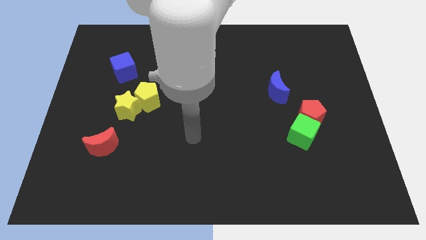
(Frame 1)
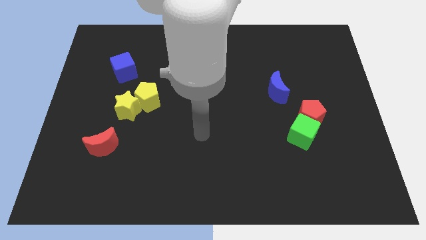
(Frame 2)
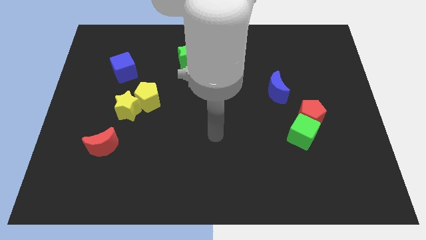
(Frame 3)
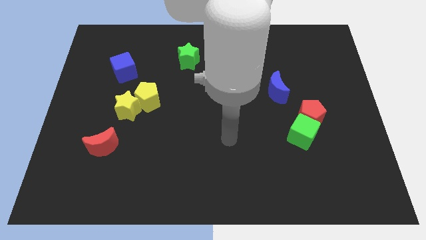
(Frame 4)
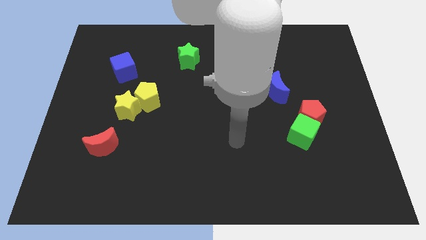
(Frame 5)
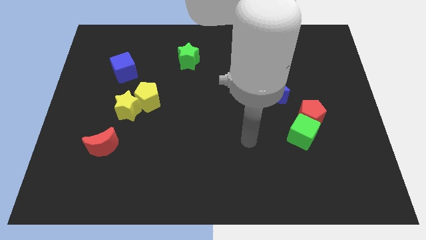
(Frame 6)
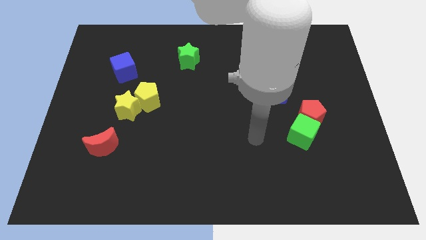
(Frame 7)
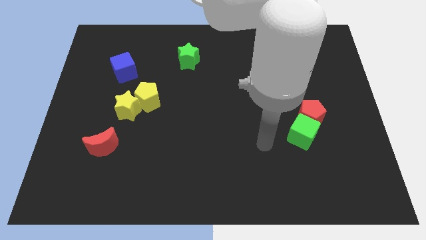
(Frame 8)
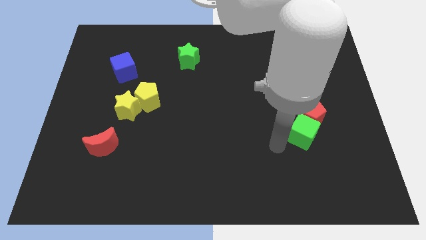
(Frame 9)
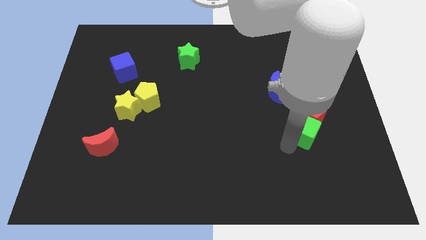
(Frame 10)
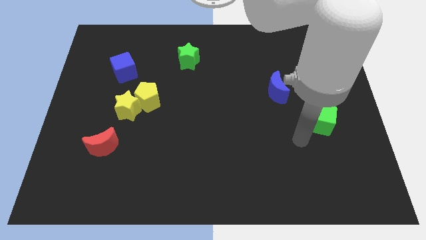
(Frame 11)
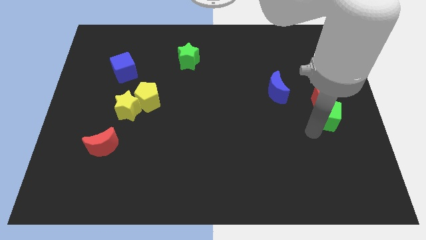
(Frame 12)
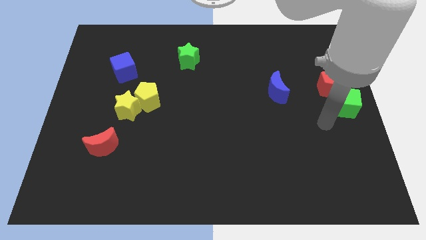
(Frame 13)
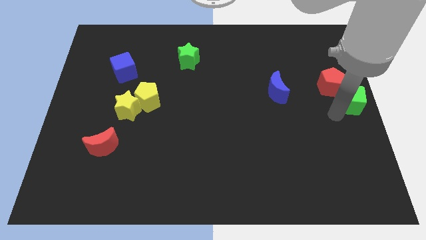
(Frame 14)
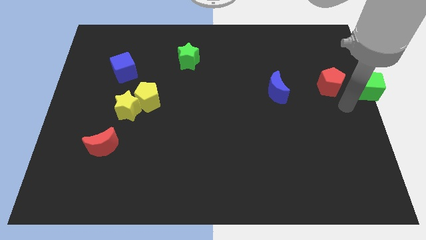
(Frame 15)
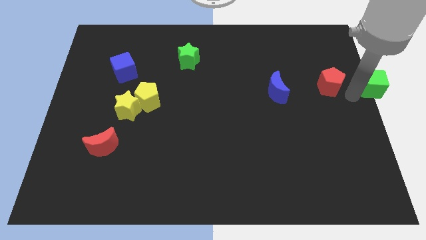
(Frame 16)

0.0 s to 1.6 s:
pull the red pentagon apart from the green cube

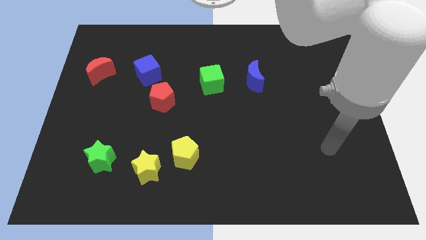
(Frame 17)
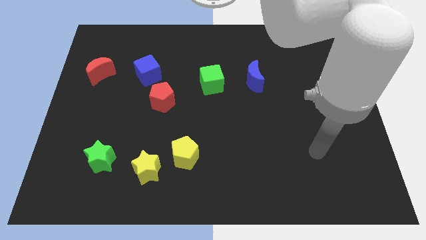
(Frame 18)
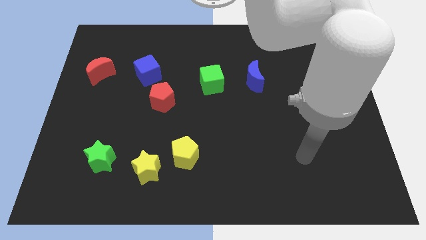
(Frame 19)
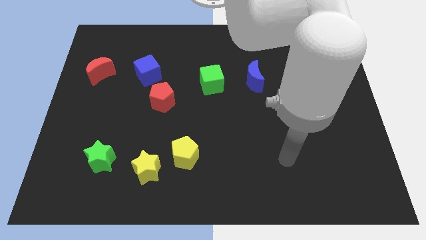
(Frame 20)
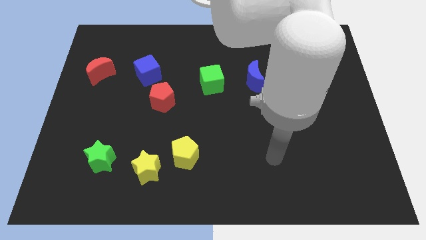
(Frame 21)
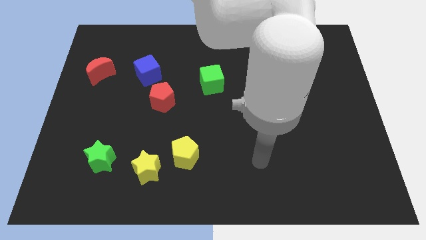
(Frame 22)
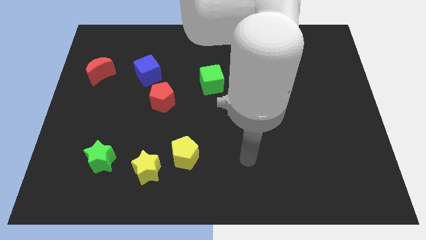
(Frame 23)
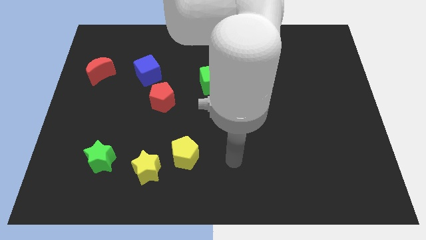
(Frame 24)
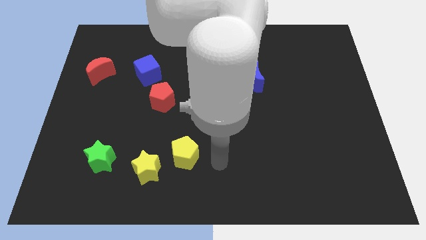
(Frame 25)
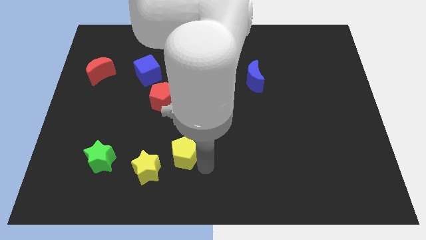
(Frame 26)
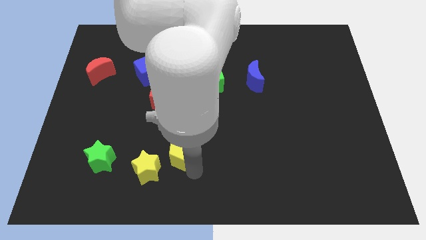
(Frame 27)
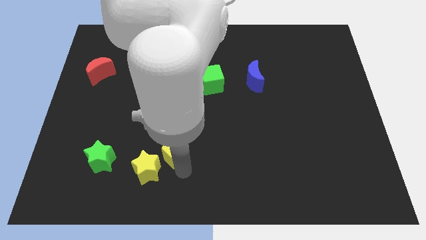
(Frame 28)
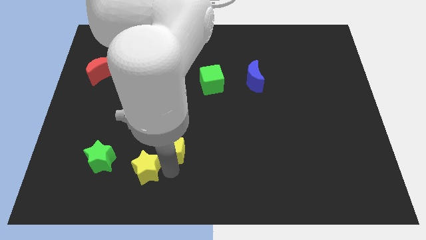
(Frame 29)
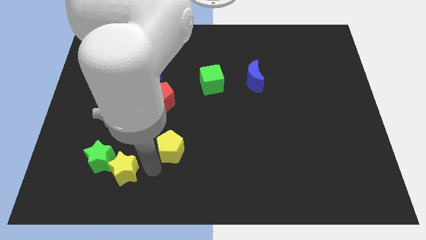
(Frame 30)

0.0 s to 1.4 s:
separate the yellow pentagon from the yellow star

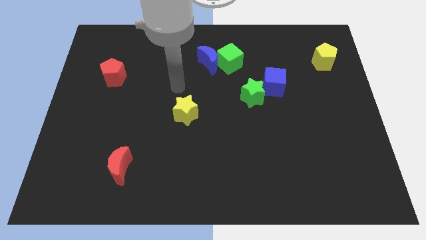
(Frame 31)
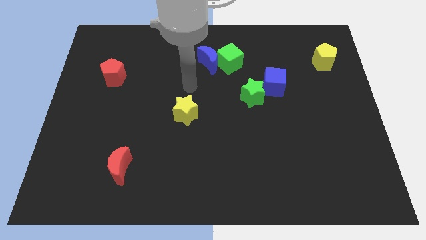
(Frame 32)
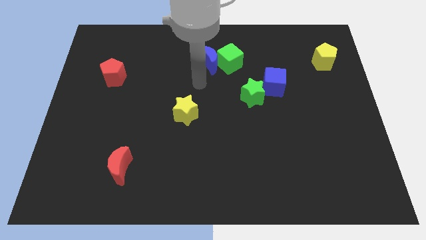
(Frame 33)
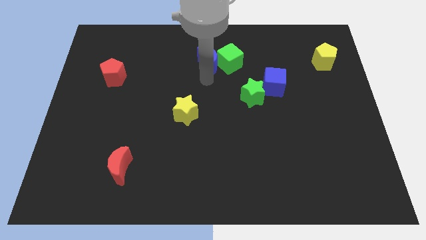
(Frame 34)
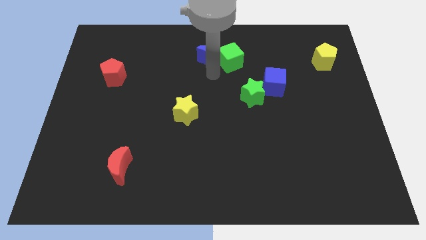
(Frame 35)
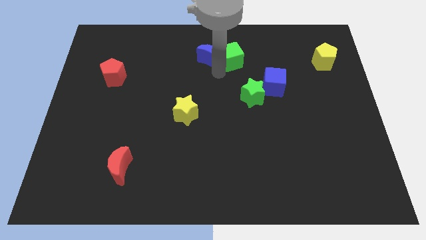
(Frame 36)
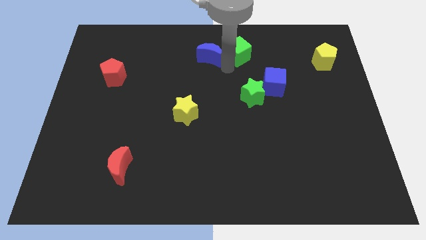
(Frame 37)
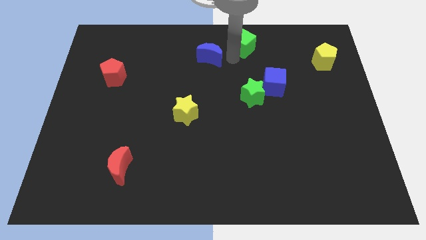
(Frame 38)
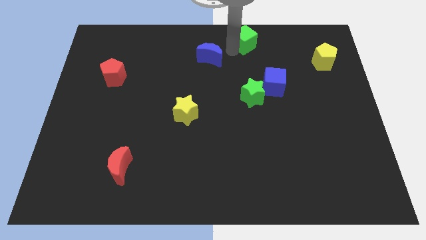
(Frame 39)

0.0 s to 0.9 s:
pull the blue moon apart from the green cube

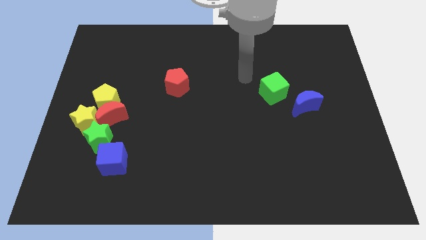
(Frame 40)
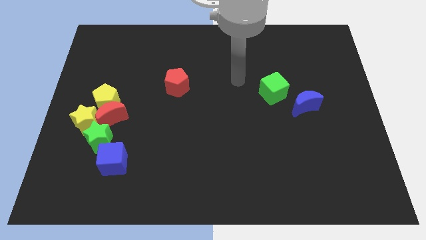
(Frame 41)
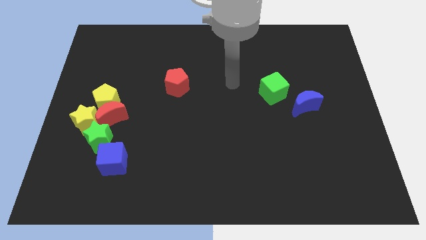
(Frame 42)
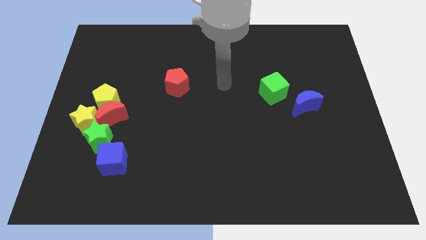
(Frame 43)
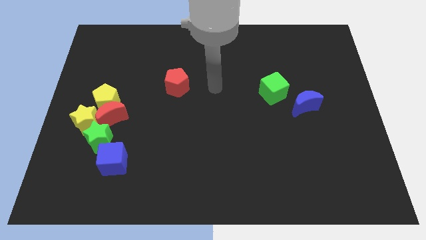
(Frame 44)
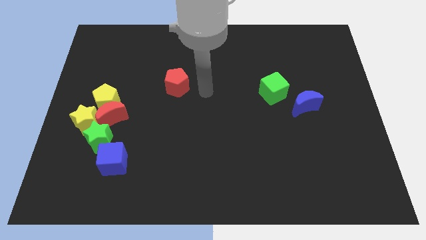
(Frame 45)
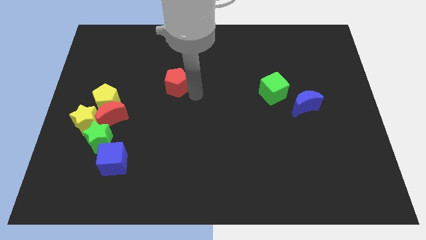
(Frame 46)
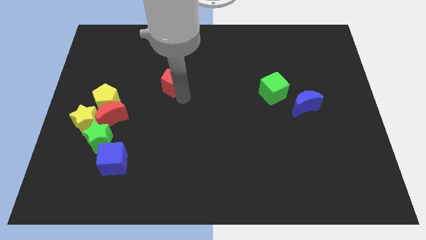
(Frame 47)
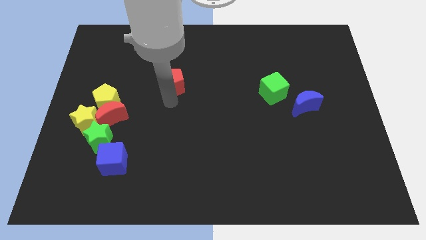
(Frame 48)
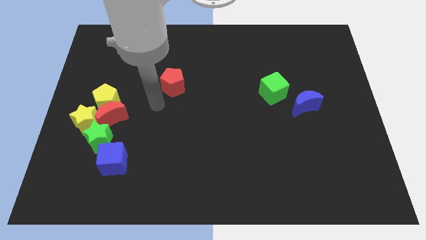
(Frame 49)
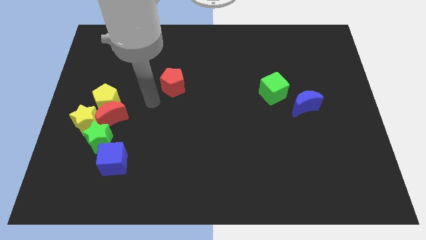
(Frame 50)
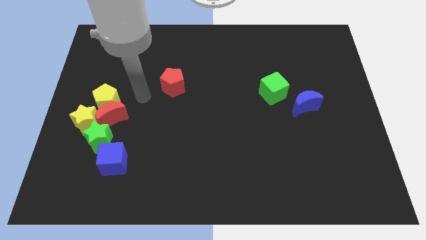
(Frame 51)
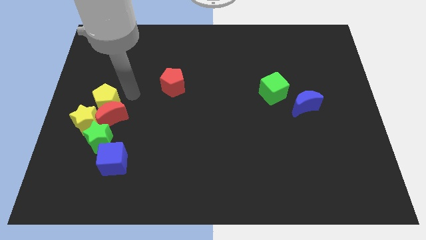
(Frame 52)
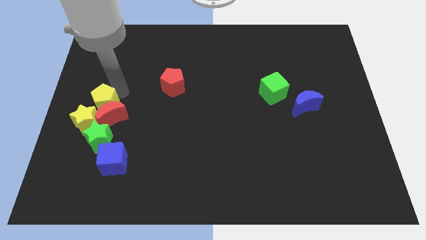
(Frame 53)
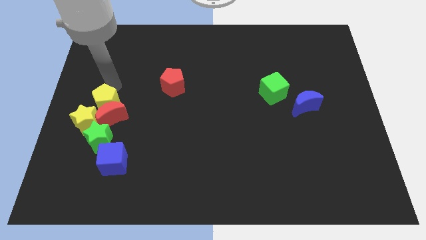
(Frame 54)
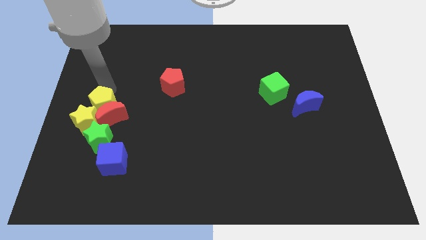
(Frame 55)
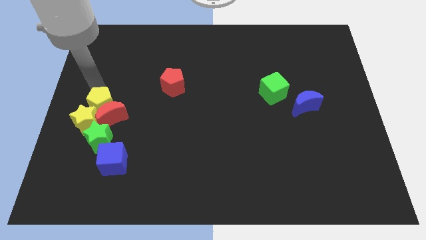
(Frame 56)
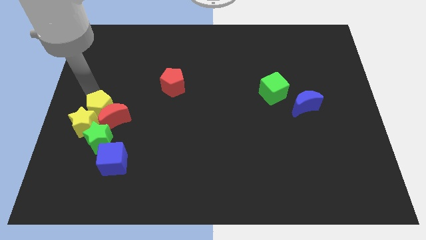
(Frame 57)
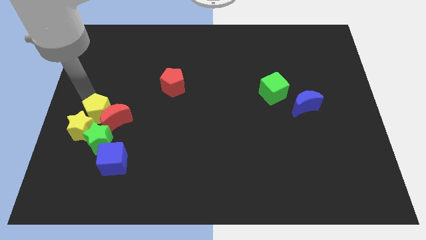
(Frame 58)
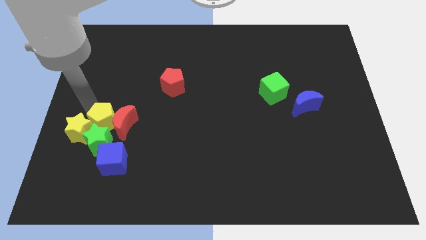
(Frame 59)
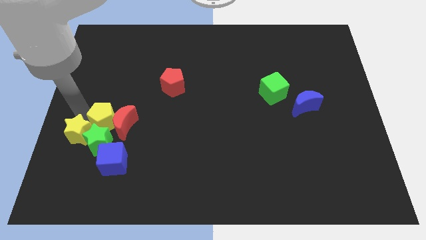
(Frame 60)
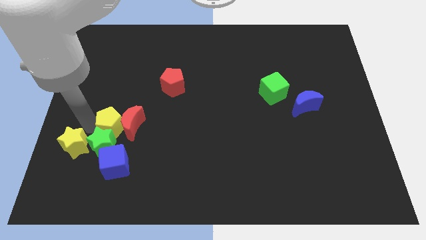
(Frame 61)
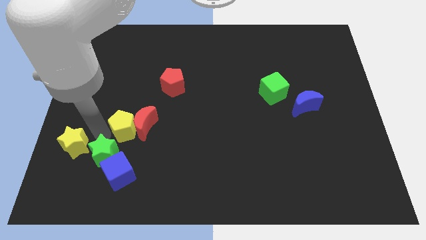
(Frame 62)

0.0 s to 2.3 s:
move the red moon away from the yellow pentagon, yellow star, and green star

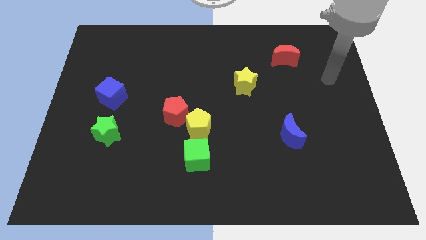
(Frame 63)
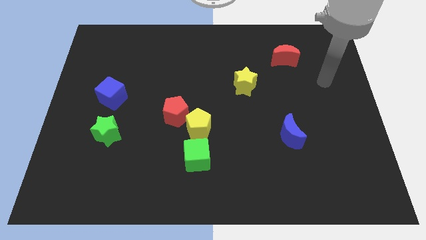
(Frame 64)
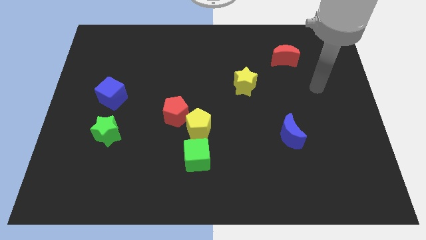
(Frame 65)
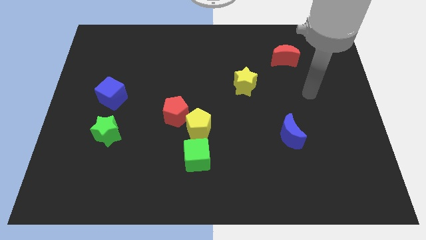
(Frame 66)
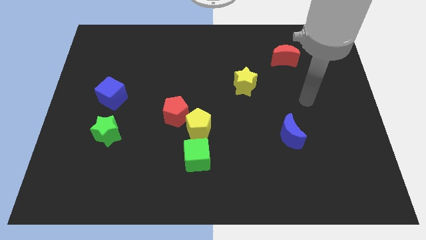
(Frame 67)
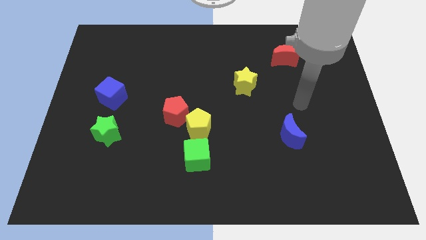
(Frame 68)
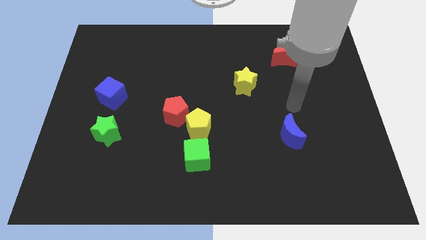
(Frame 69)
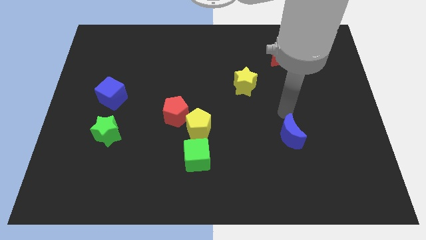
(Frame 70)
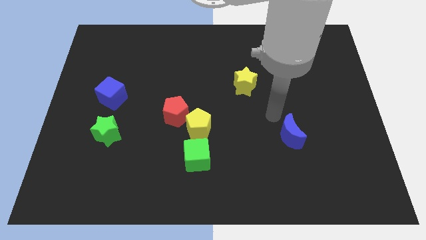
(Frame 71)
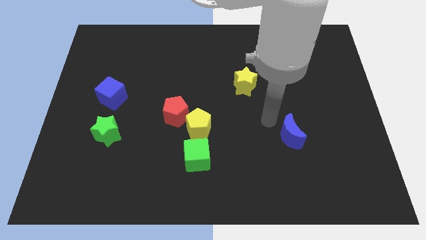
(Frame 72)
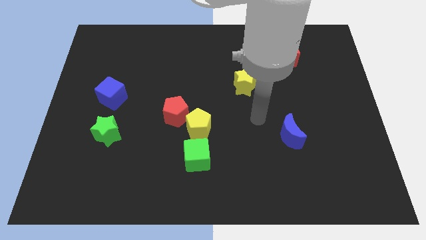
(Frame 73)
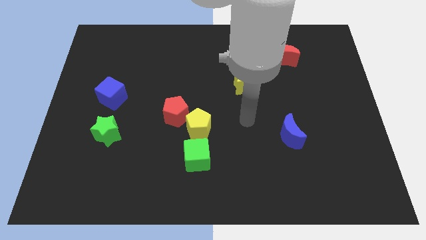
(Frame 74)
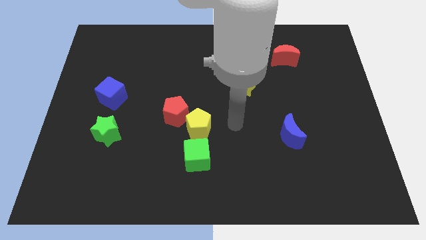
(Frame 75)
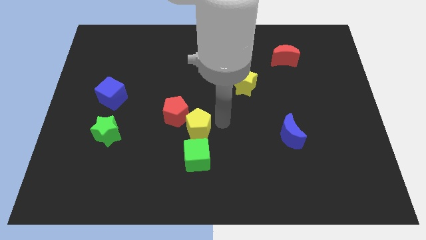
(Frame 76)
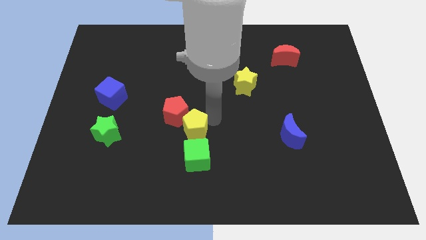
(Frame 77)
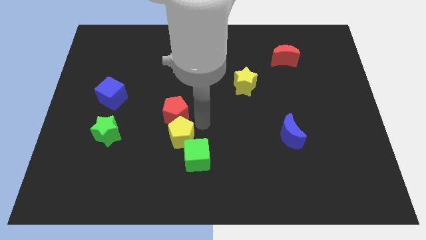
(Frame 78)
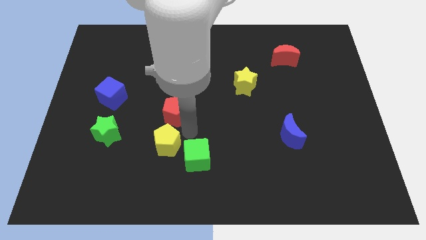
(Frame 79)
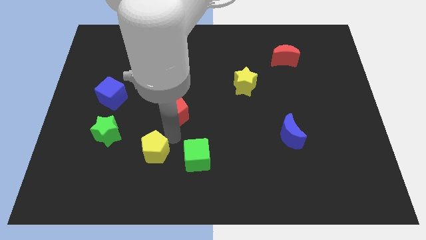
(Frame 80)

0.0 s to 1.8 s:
separate the red pentagon from the yellow pentagon

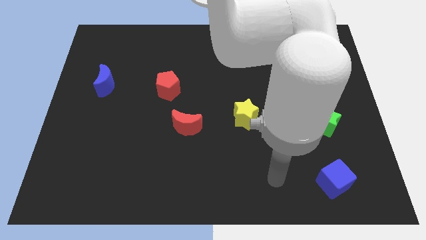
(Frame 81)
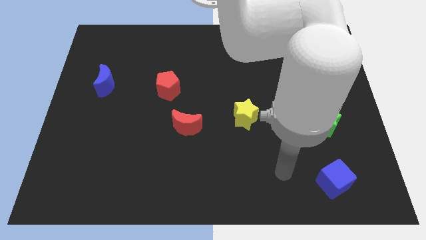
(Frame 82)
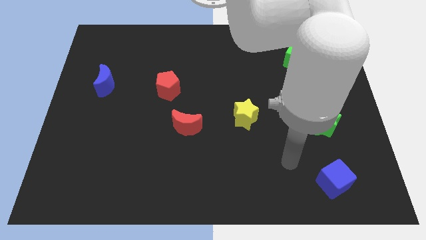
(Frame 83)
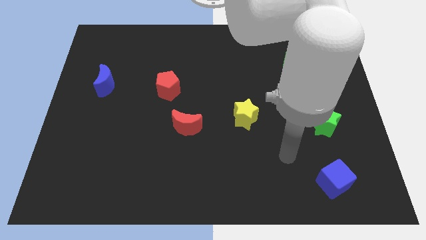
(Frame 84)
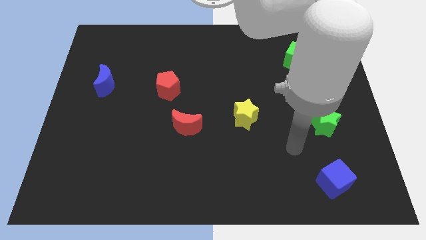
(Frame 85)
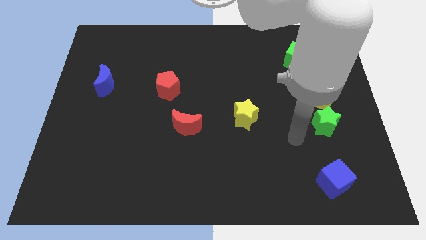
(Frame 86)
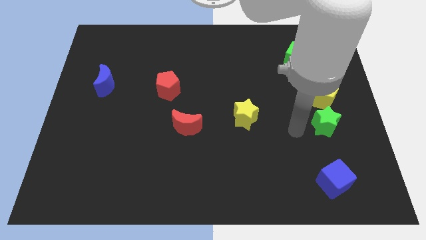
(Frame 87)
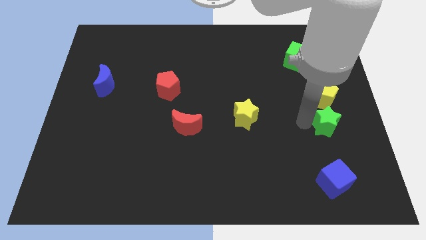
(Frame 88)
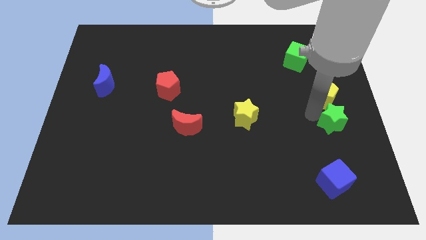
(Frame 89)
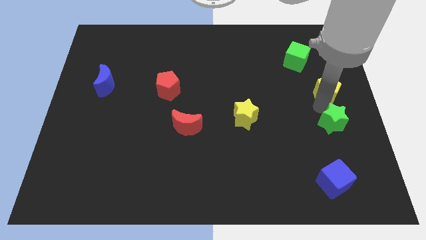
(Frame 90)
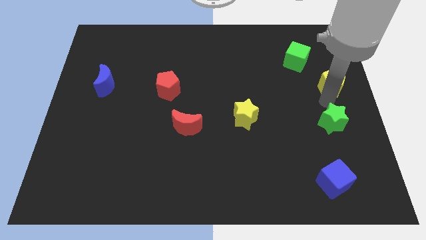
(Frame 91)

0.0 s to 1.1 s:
move the green star away from the yellow pentagon
